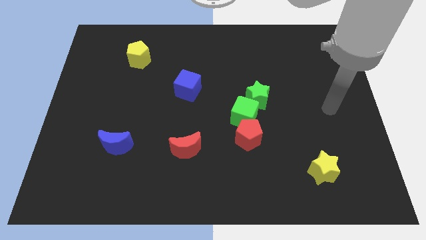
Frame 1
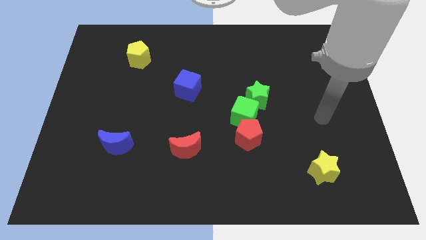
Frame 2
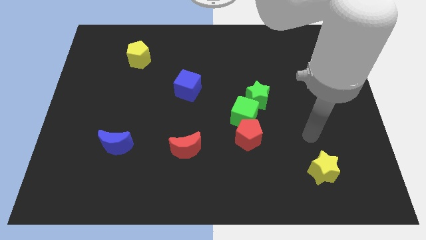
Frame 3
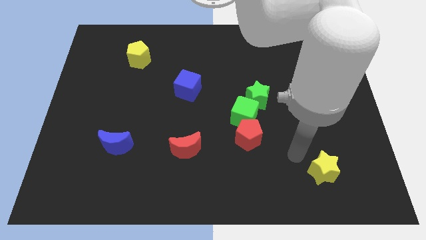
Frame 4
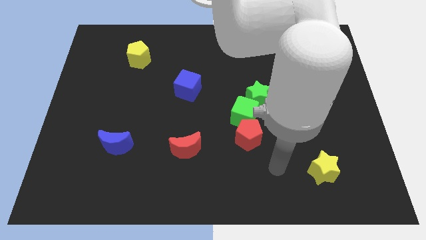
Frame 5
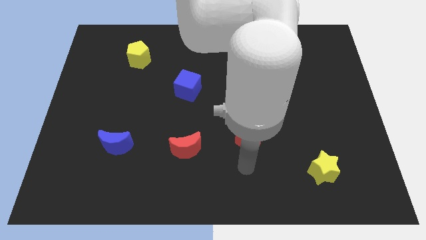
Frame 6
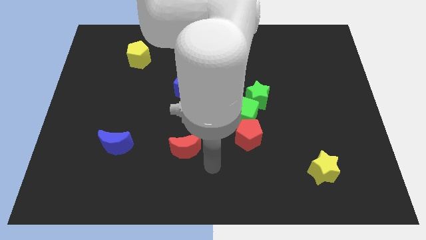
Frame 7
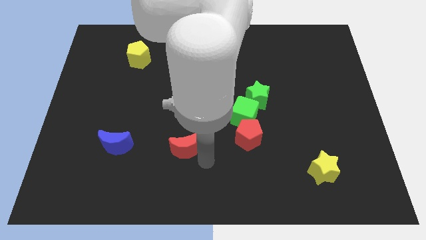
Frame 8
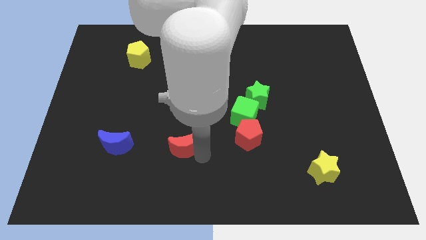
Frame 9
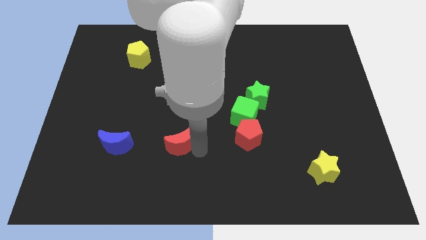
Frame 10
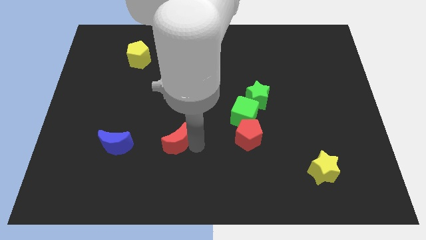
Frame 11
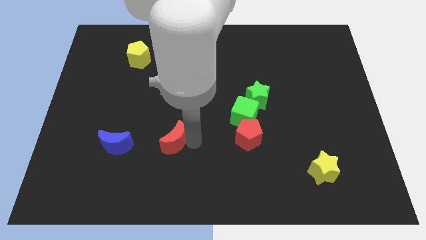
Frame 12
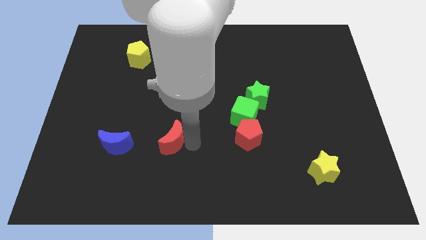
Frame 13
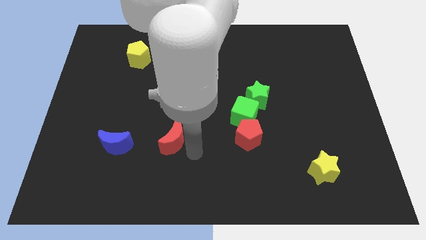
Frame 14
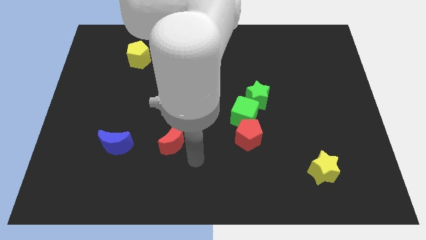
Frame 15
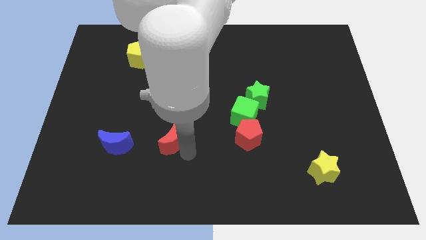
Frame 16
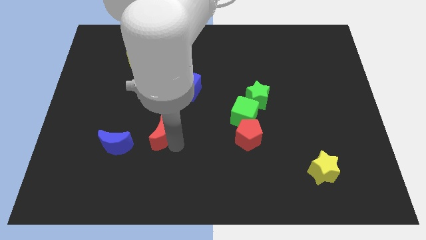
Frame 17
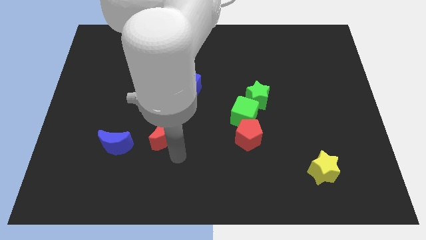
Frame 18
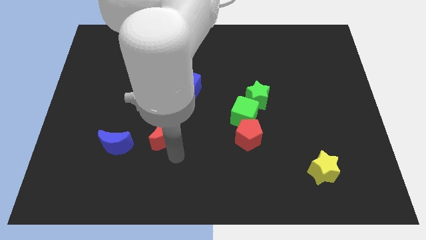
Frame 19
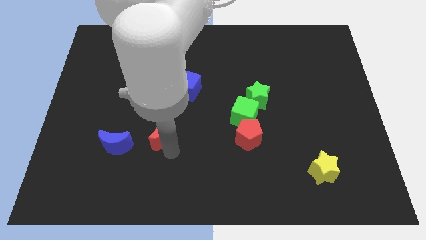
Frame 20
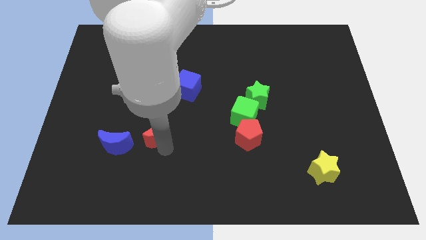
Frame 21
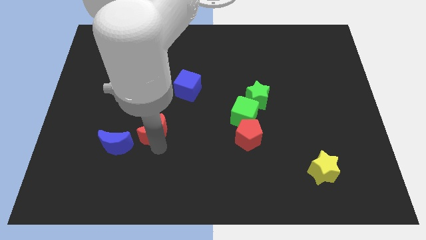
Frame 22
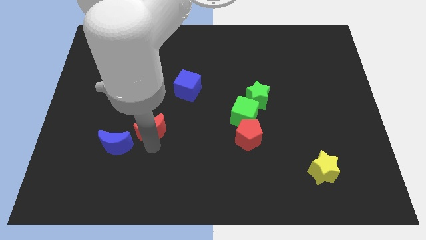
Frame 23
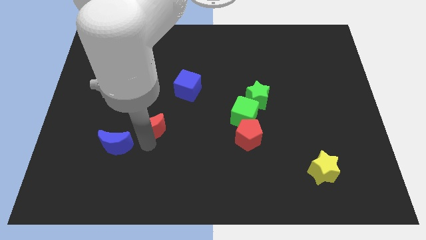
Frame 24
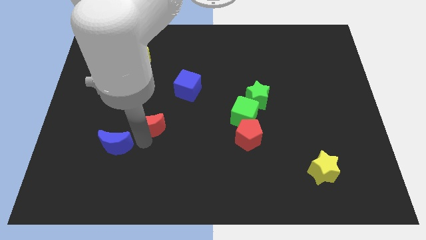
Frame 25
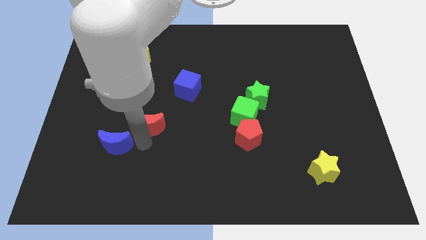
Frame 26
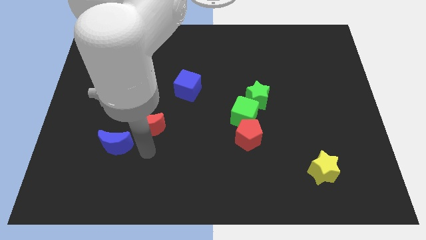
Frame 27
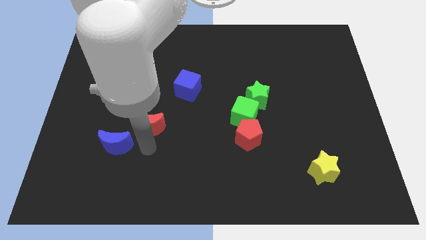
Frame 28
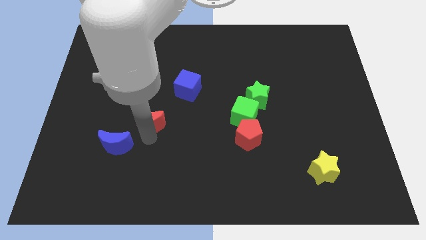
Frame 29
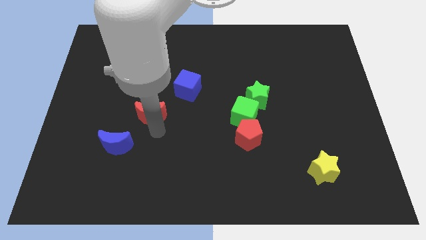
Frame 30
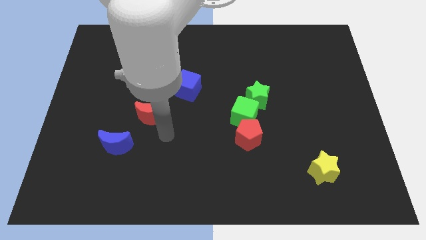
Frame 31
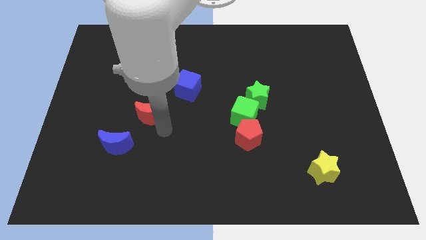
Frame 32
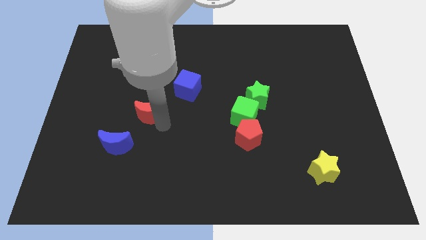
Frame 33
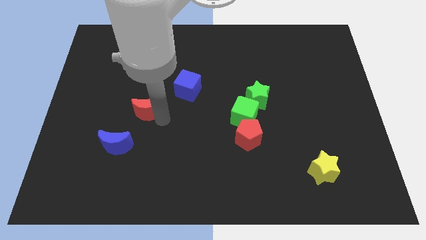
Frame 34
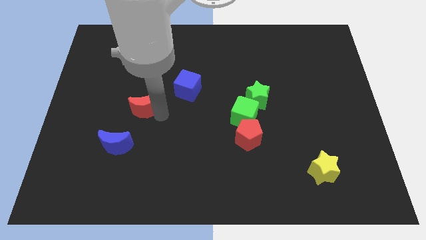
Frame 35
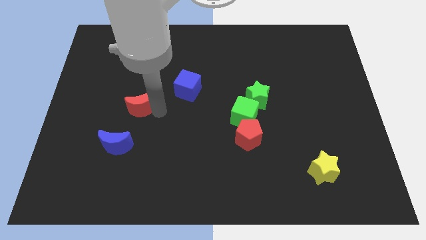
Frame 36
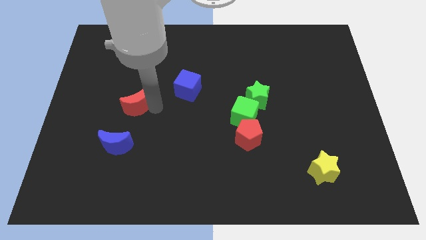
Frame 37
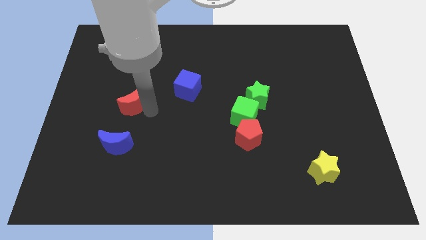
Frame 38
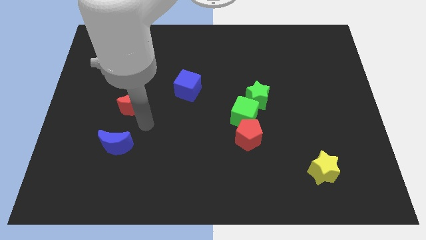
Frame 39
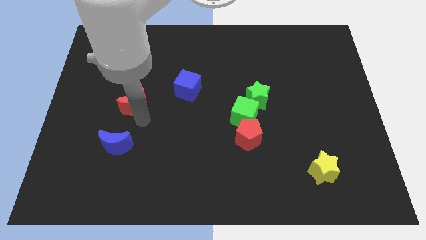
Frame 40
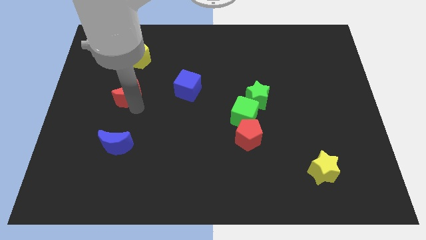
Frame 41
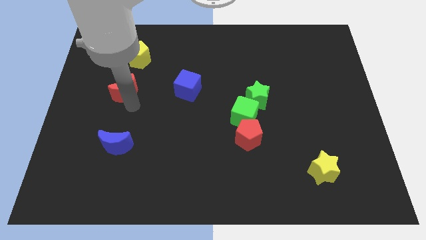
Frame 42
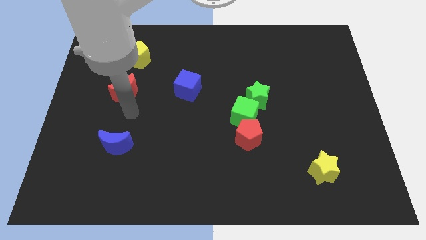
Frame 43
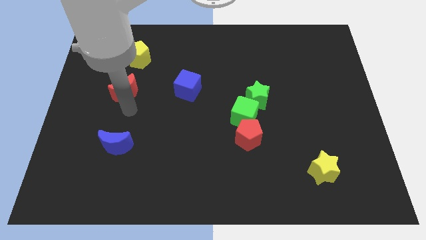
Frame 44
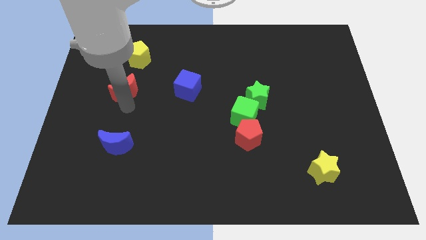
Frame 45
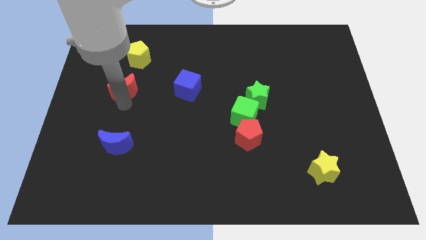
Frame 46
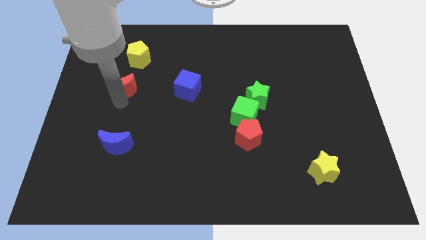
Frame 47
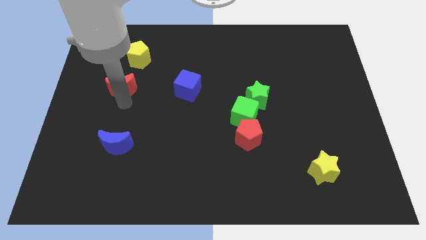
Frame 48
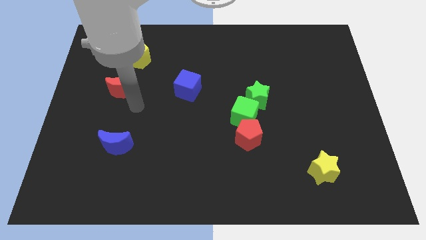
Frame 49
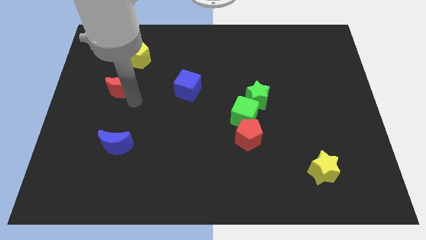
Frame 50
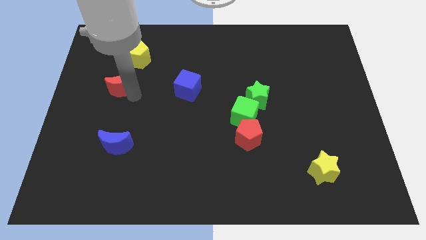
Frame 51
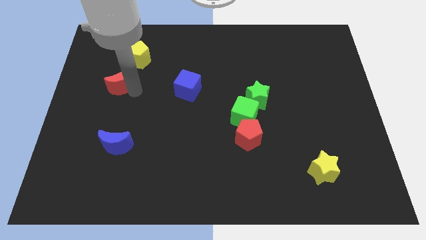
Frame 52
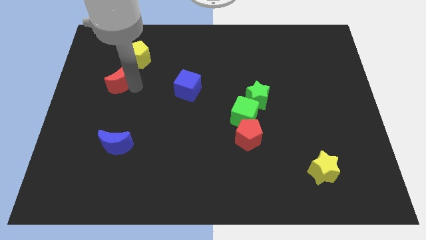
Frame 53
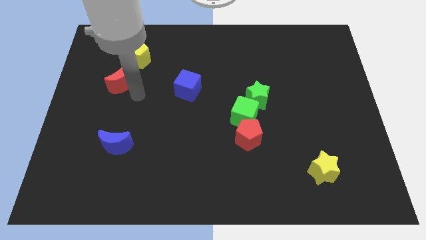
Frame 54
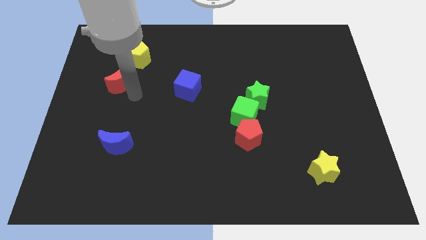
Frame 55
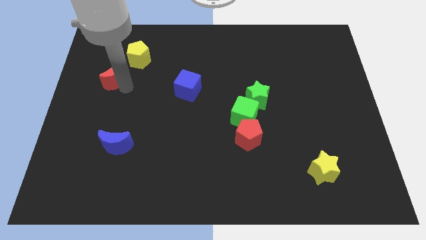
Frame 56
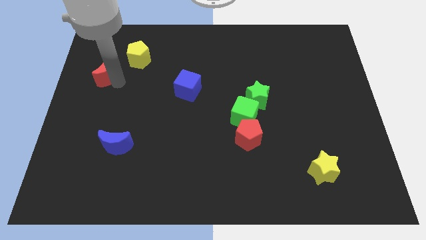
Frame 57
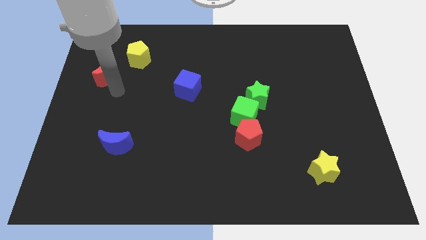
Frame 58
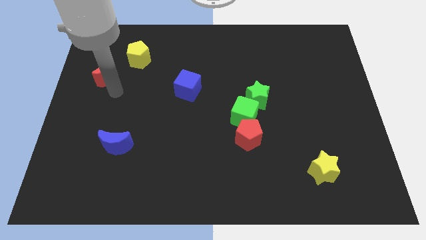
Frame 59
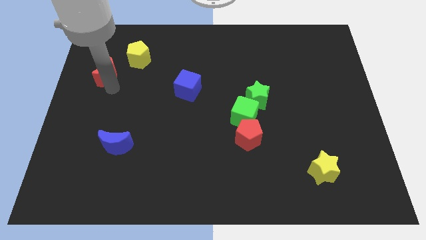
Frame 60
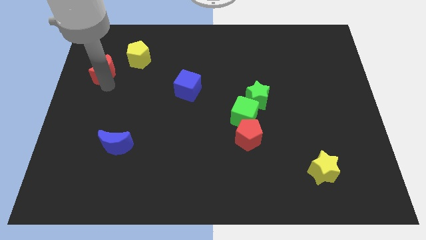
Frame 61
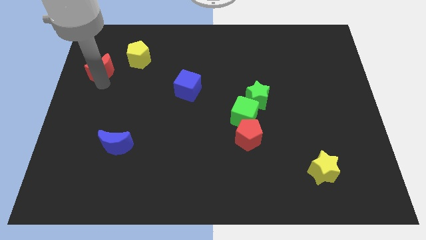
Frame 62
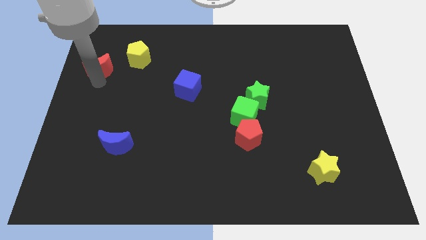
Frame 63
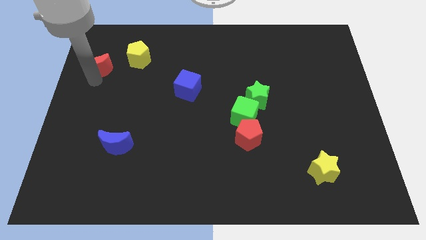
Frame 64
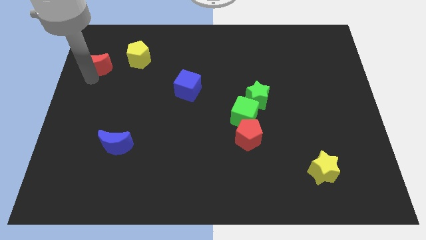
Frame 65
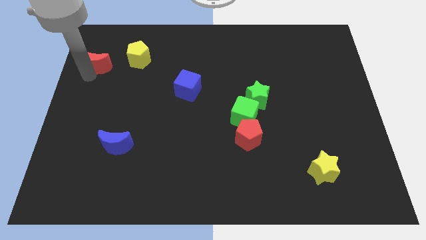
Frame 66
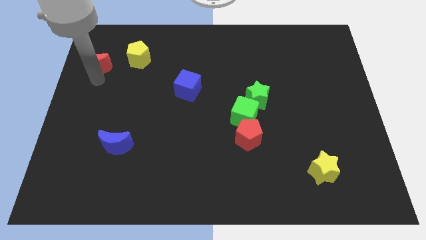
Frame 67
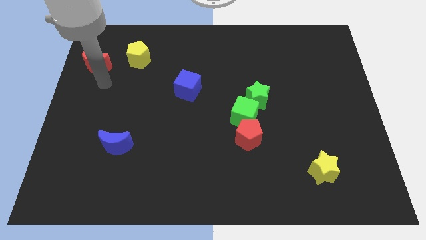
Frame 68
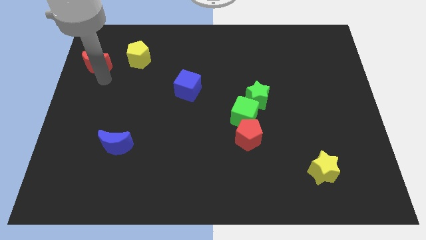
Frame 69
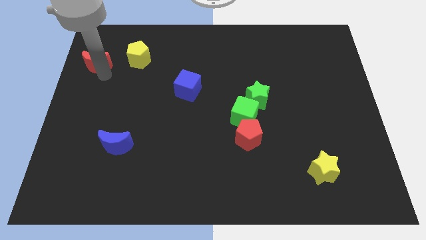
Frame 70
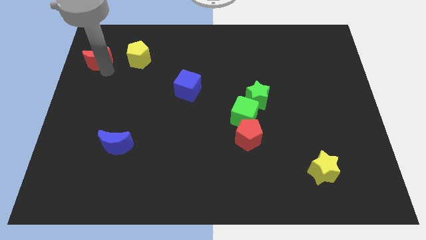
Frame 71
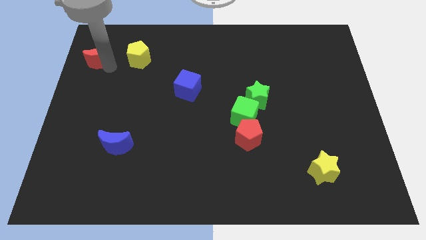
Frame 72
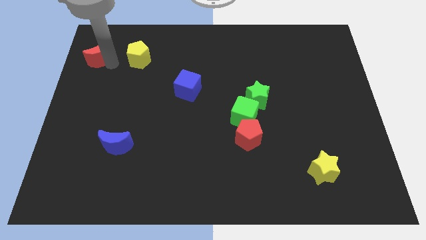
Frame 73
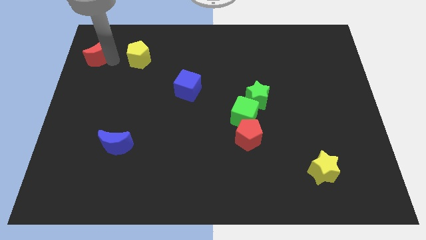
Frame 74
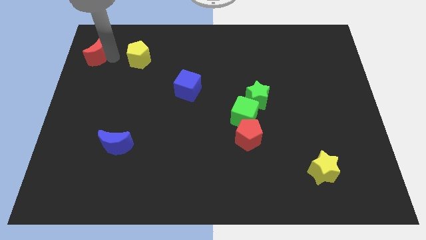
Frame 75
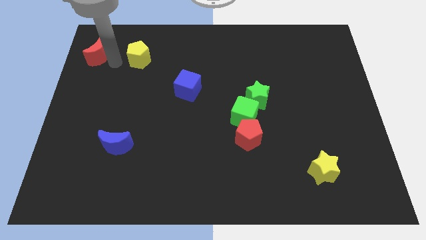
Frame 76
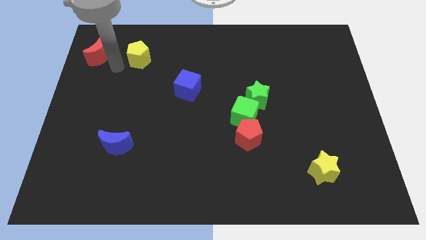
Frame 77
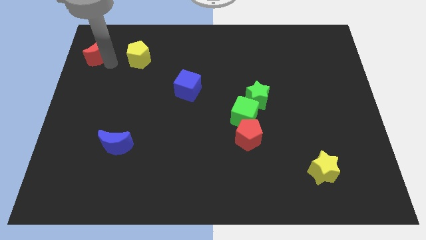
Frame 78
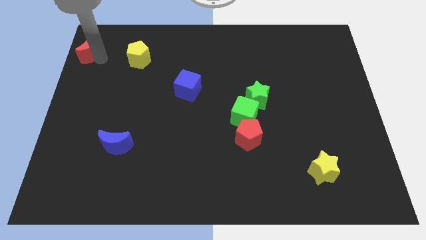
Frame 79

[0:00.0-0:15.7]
slide the red moon to the upper left corner
